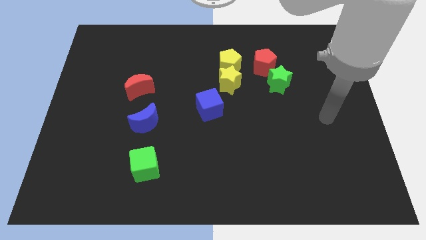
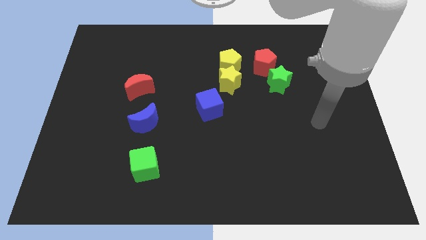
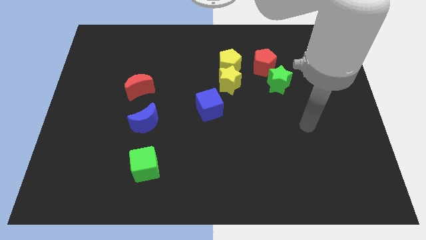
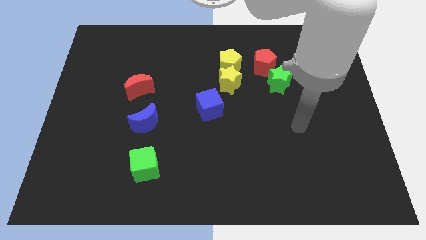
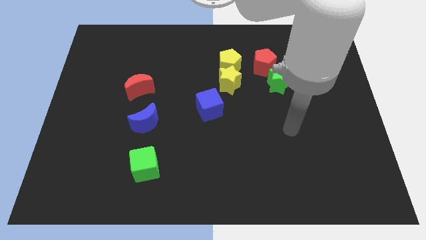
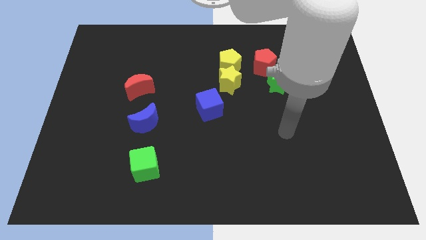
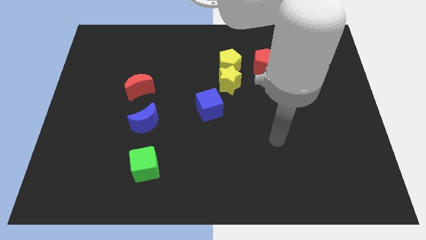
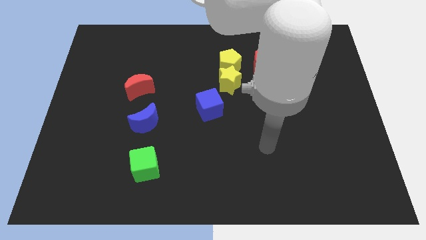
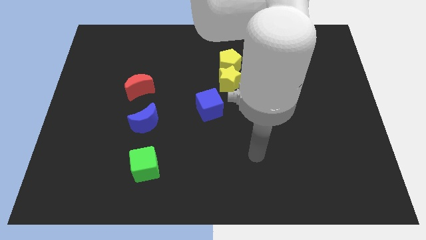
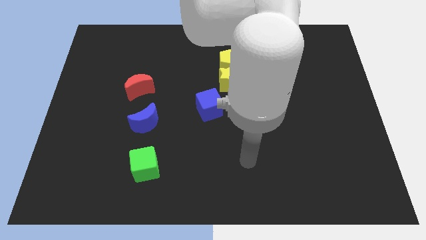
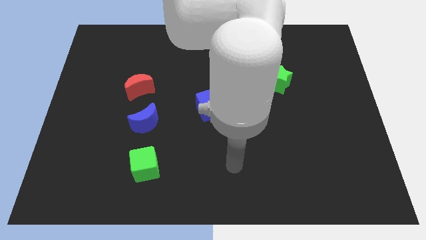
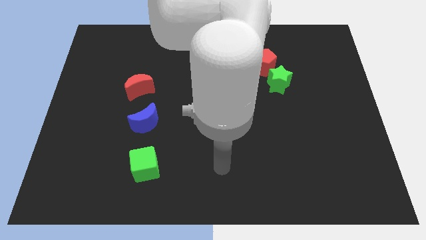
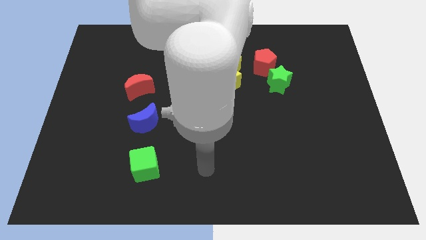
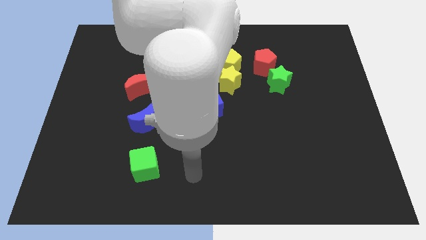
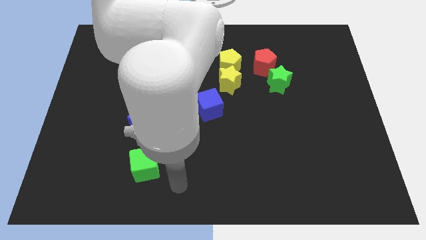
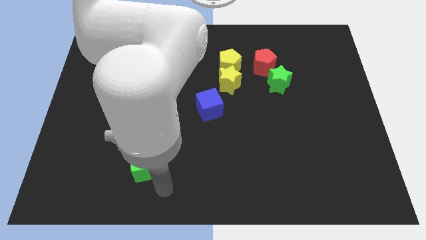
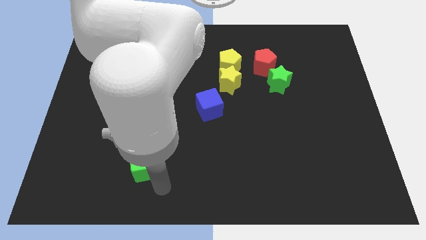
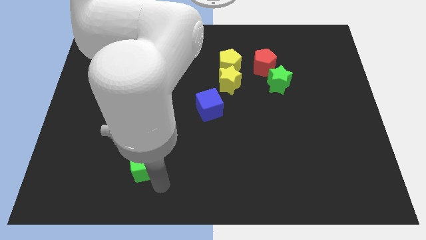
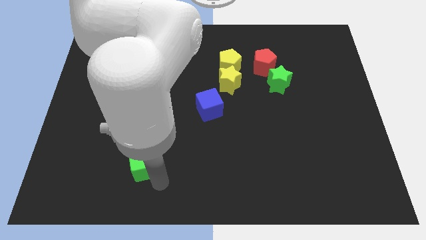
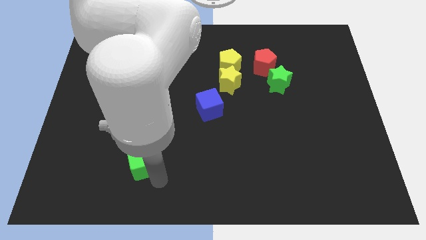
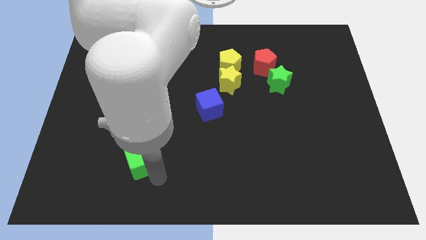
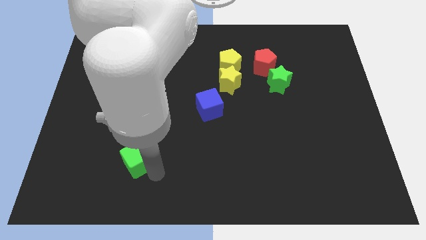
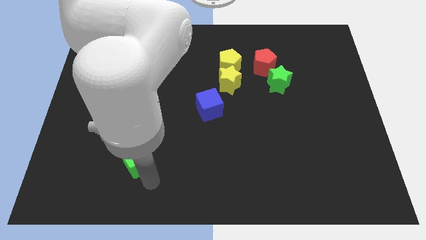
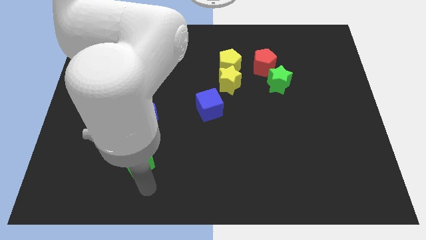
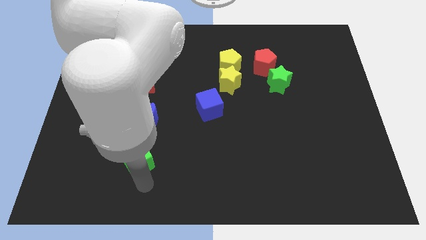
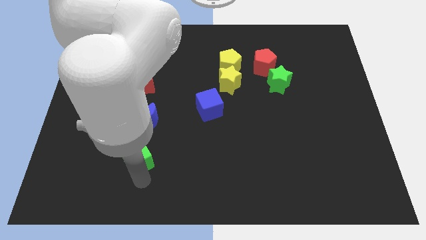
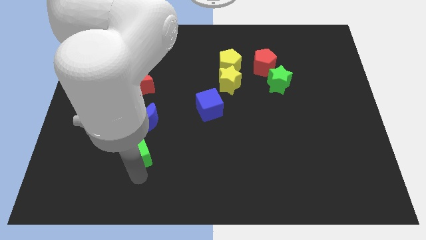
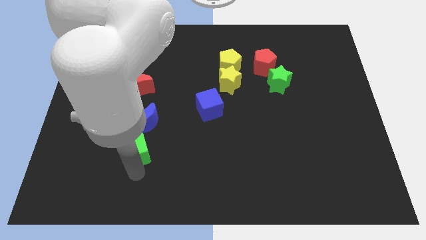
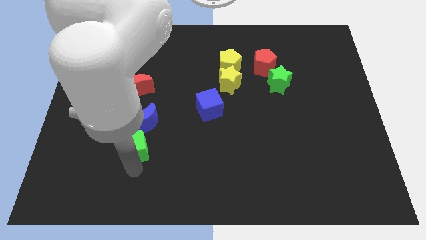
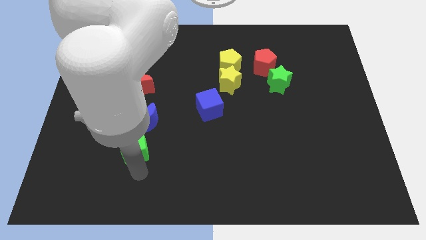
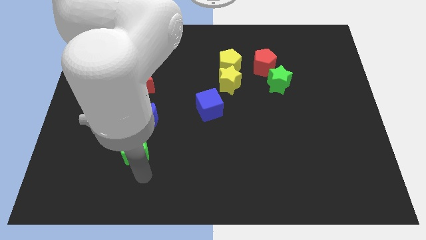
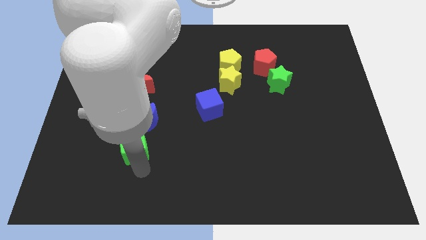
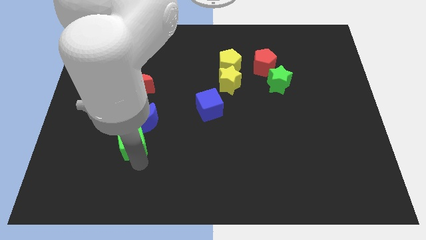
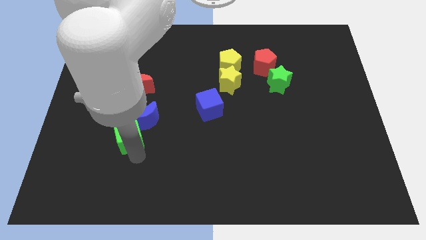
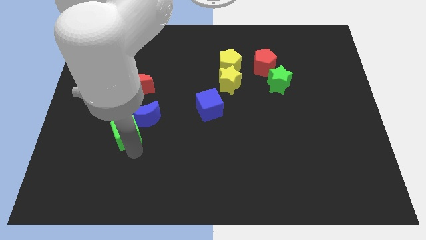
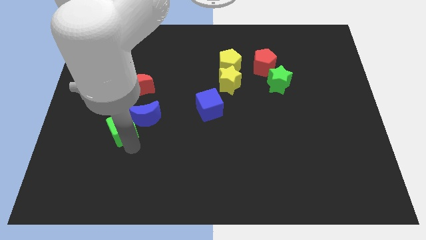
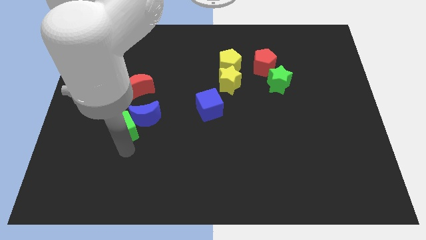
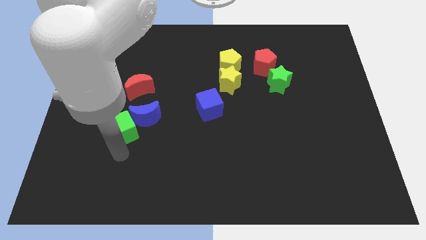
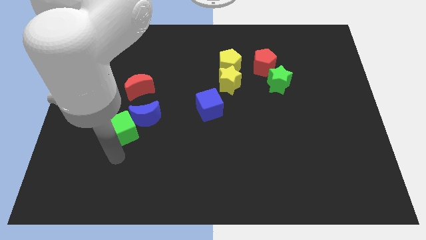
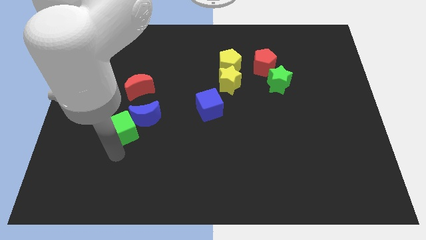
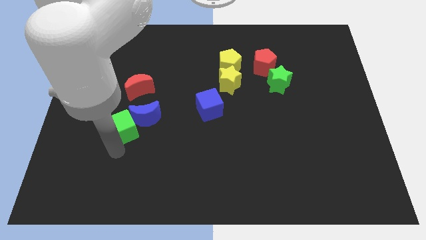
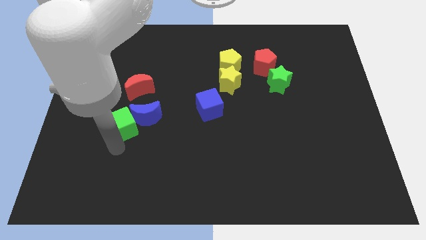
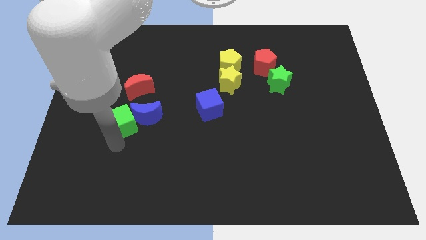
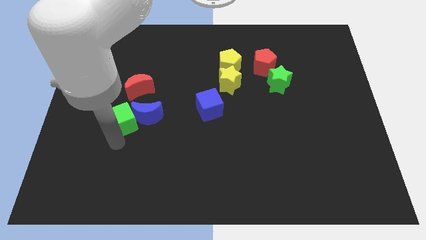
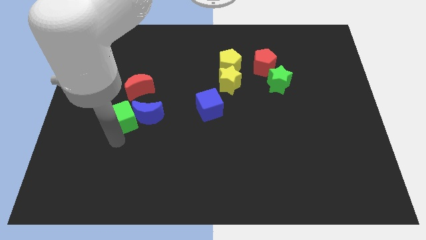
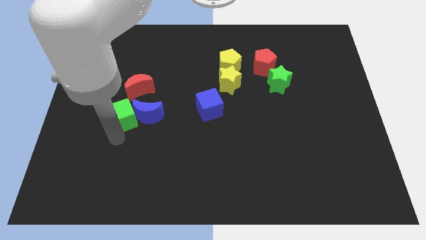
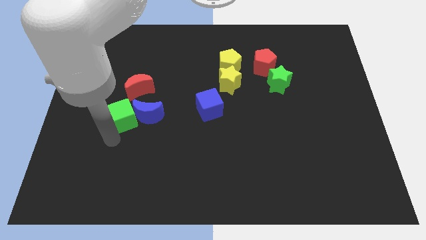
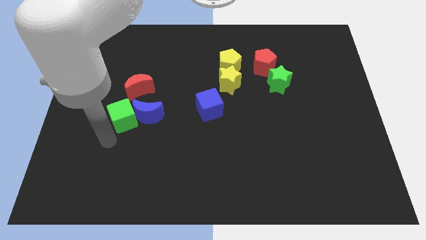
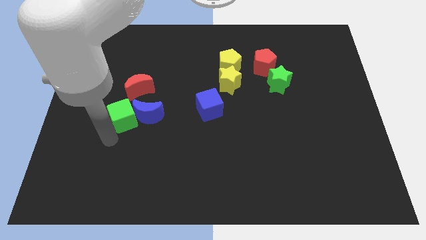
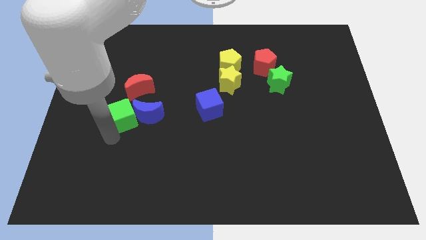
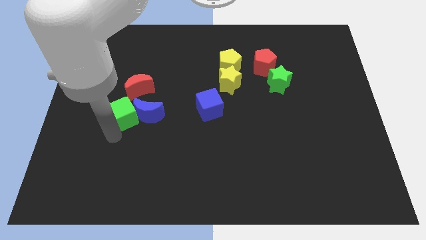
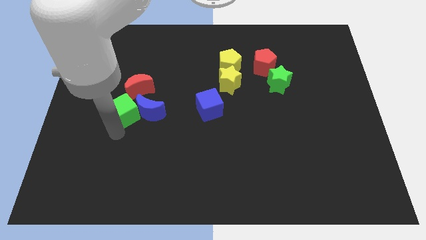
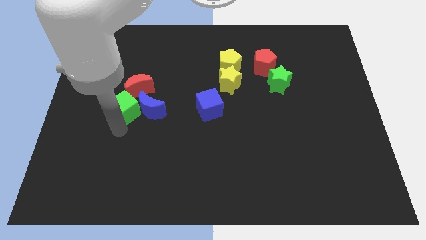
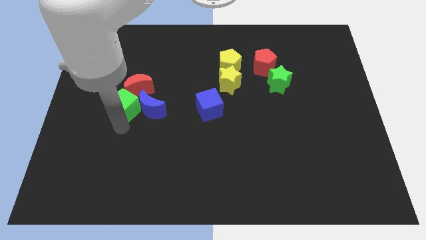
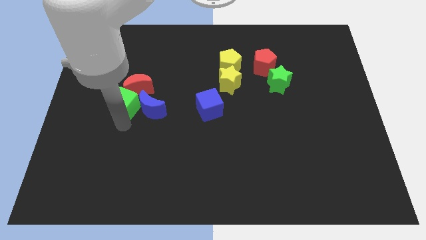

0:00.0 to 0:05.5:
push the green cube next to the red moon

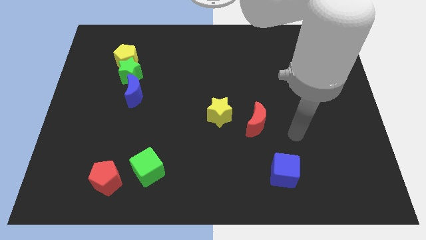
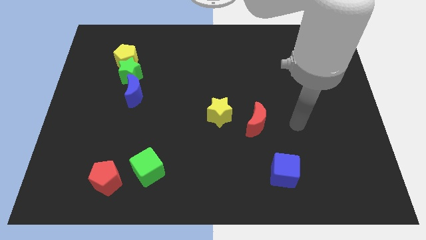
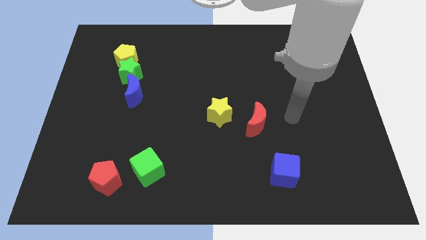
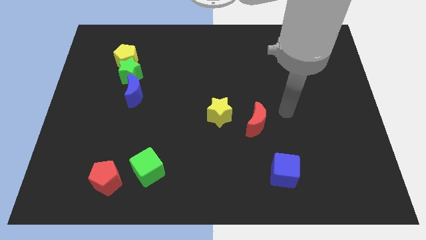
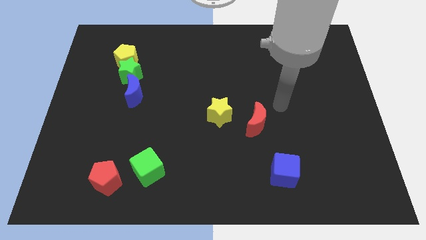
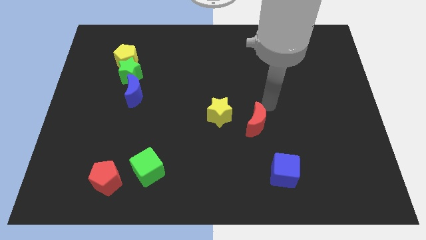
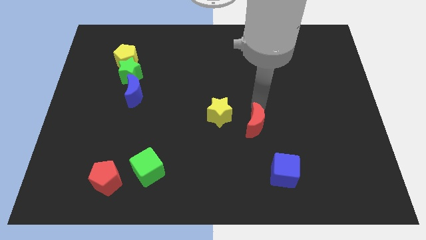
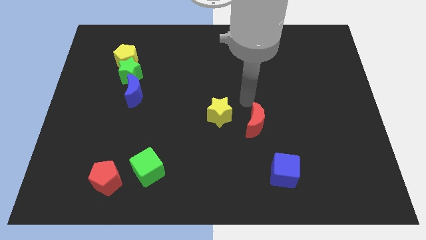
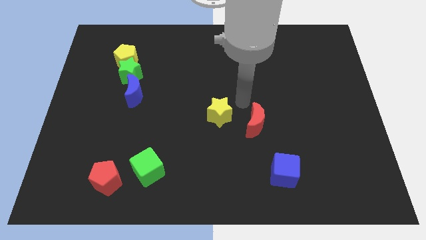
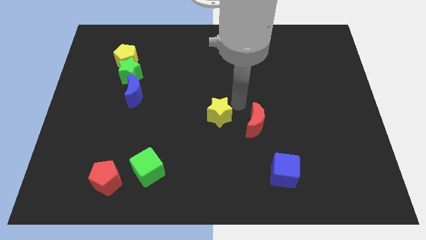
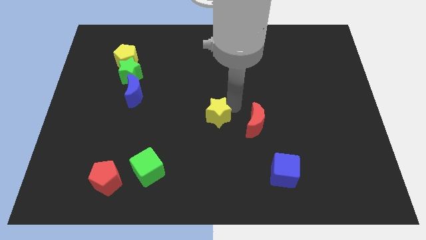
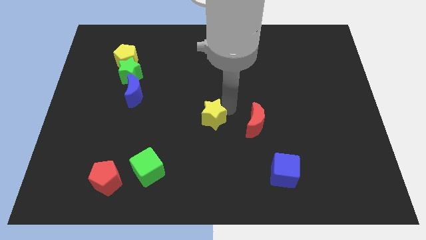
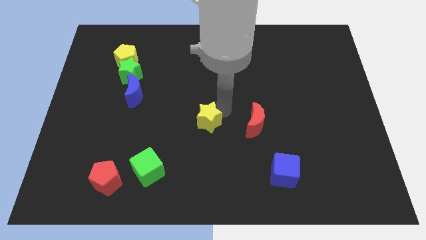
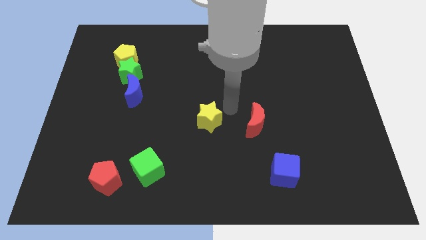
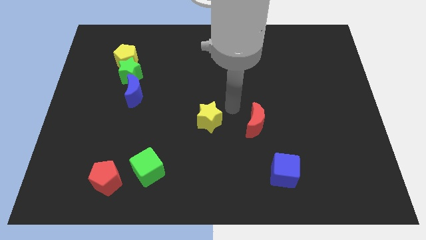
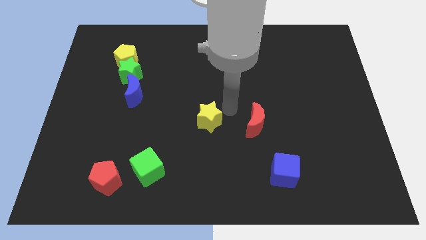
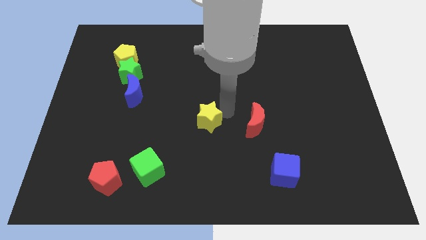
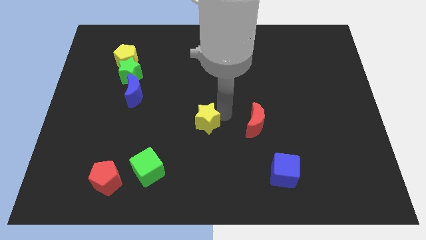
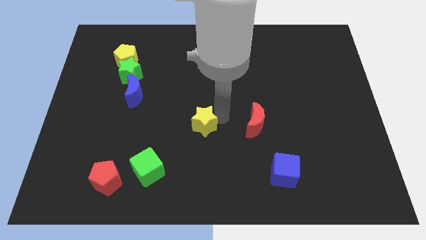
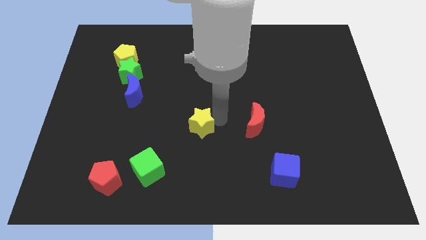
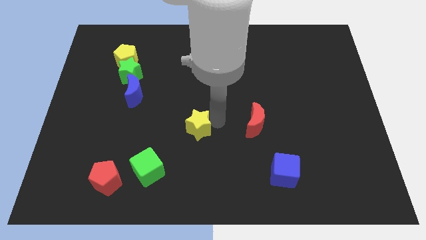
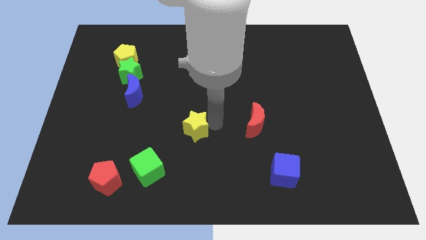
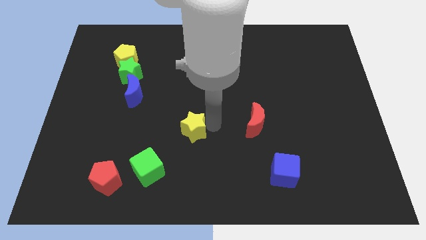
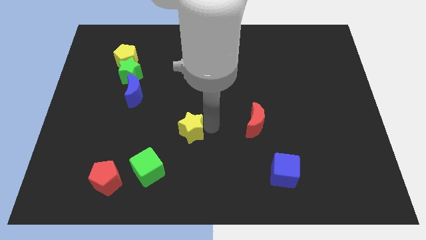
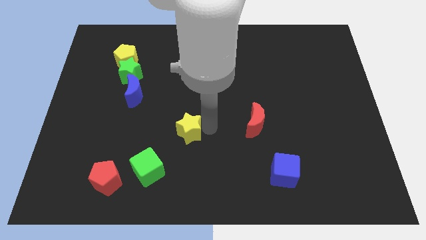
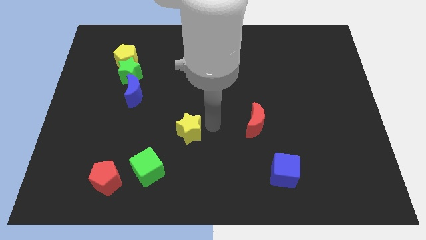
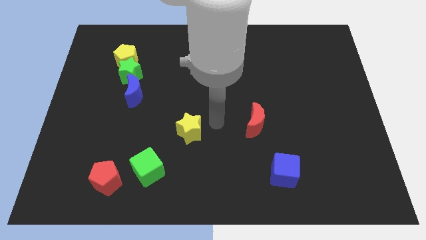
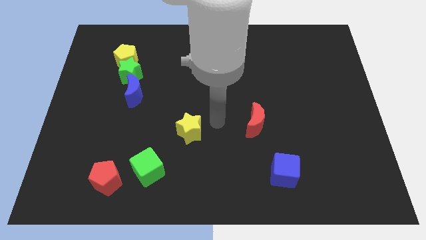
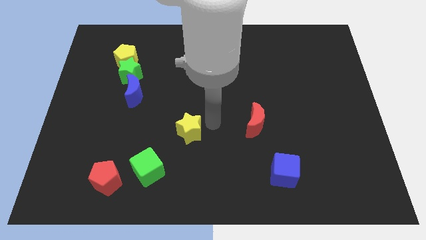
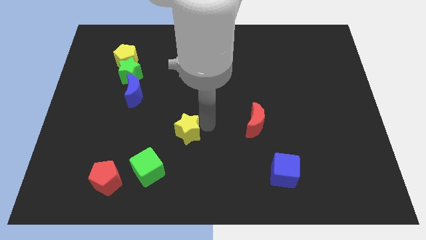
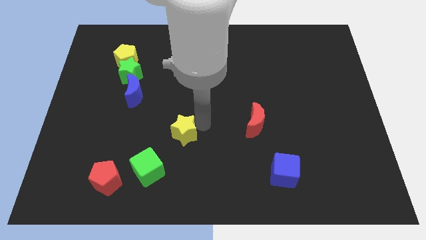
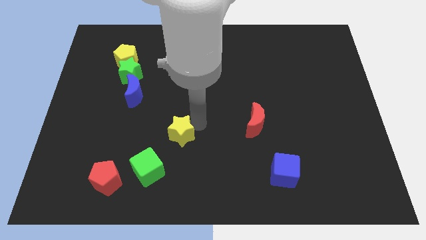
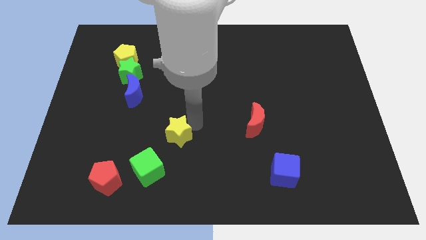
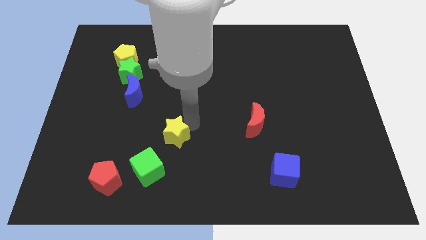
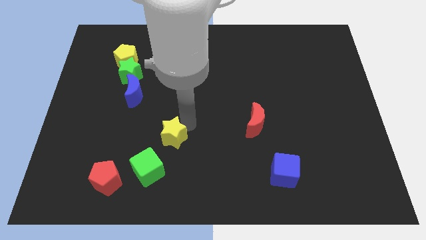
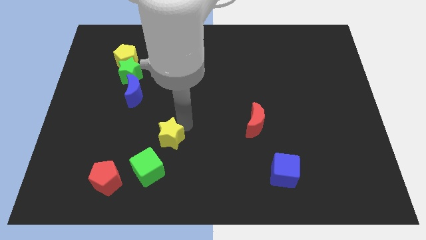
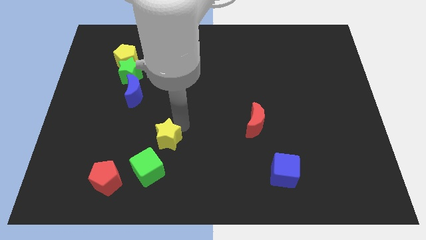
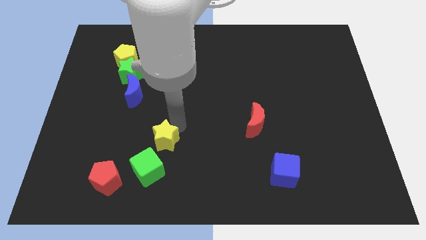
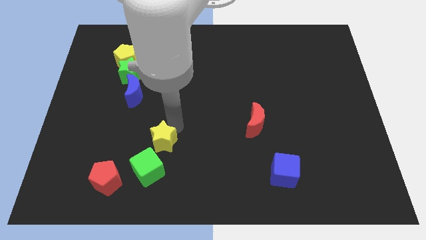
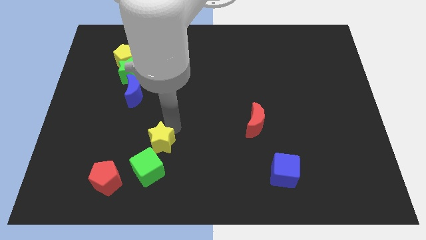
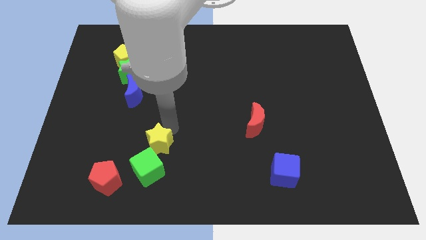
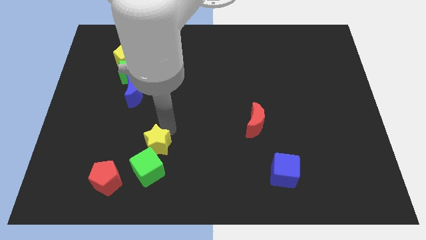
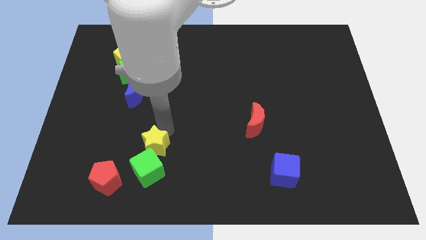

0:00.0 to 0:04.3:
push the yellow star towards the green cube
